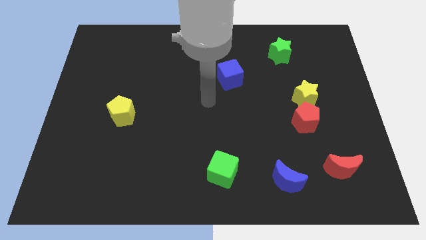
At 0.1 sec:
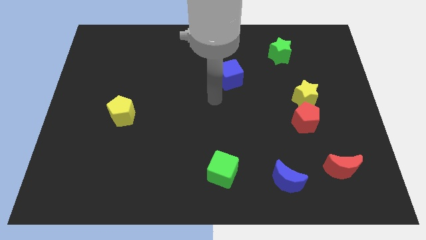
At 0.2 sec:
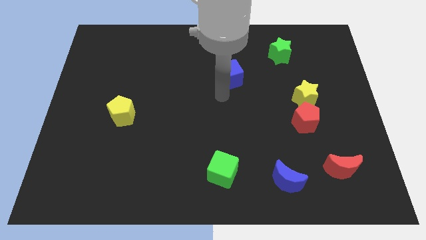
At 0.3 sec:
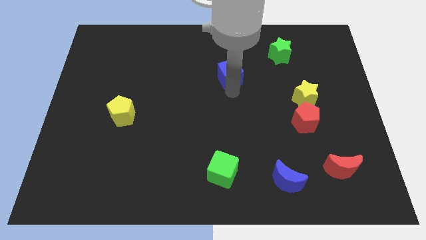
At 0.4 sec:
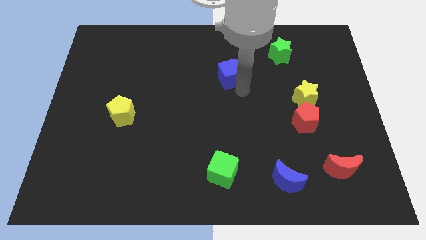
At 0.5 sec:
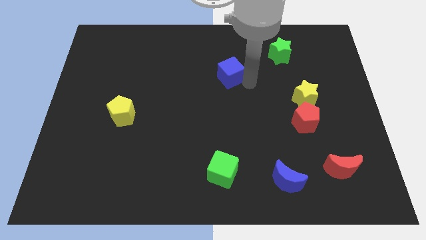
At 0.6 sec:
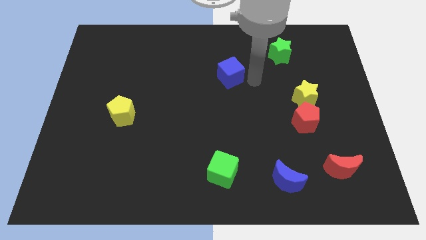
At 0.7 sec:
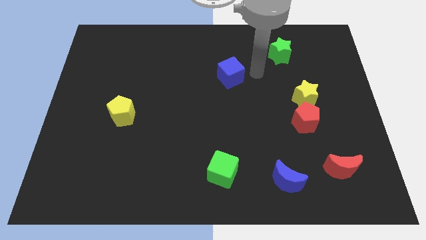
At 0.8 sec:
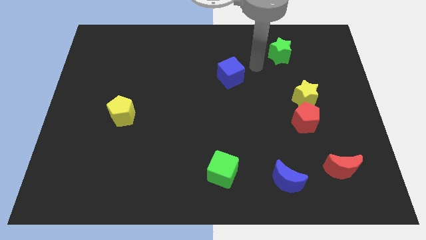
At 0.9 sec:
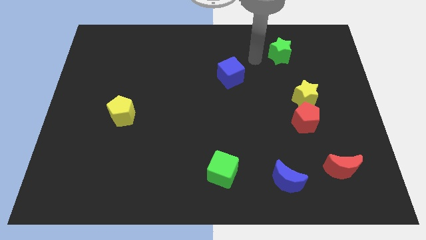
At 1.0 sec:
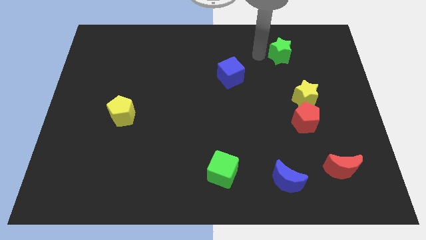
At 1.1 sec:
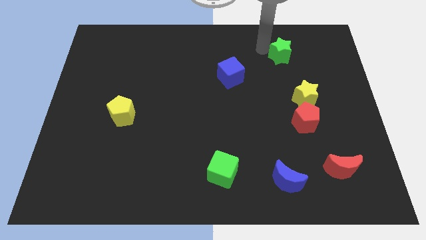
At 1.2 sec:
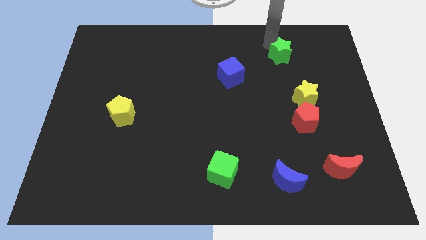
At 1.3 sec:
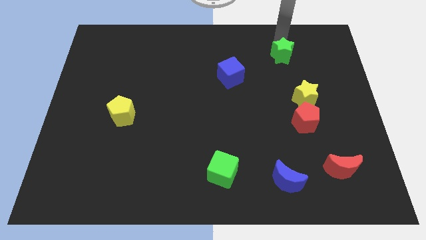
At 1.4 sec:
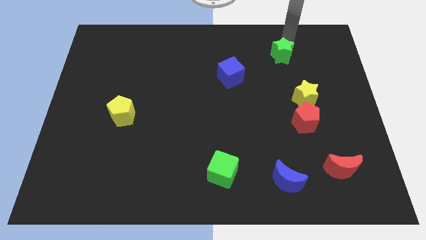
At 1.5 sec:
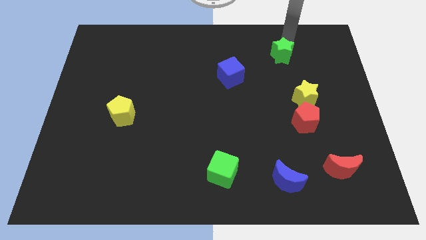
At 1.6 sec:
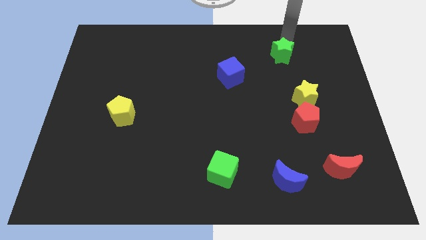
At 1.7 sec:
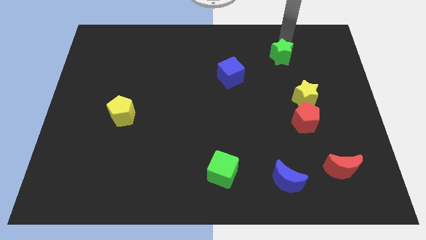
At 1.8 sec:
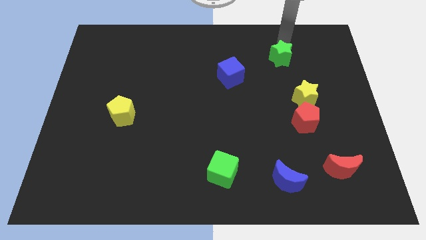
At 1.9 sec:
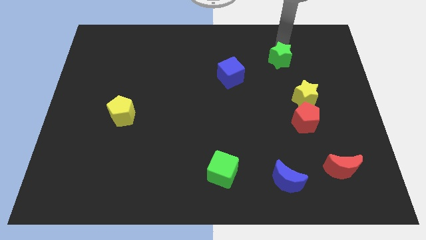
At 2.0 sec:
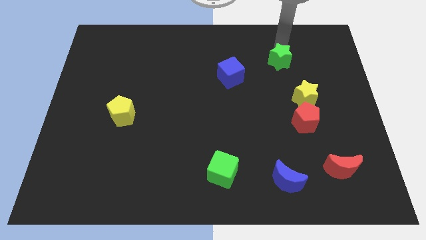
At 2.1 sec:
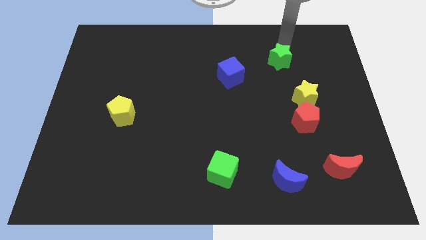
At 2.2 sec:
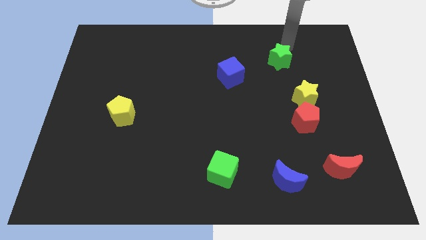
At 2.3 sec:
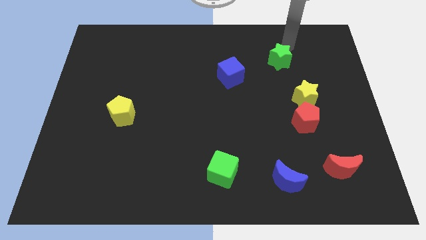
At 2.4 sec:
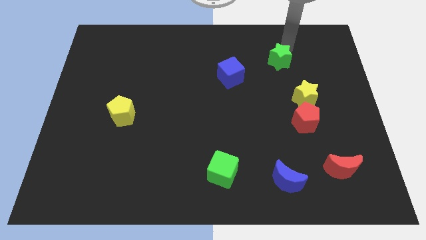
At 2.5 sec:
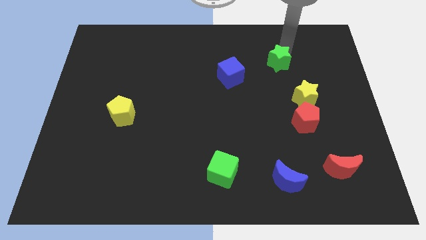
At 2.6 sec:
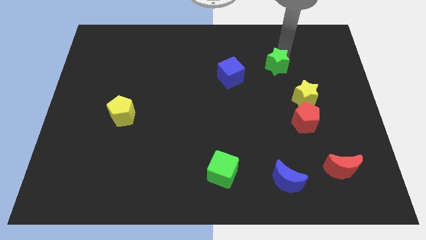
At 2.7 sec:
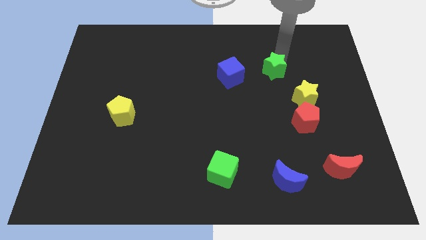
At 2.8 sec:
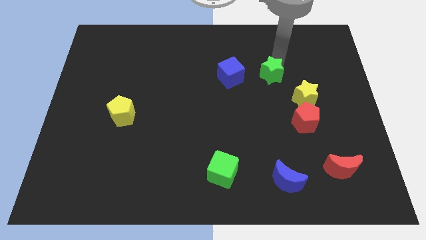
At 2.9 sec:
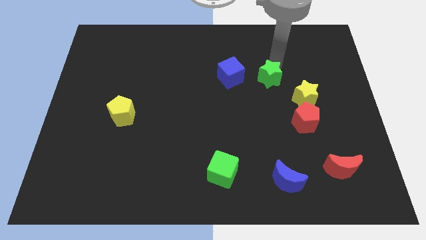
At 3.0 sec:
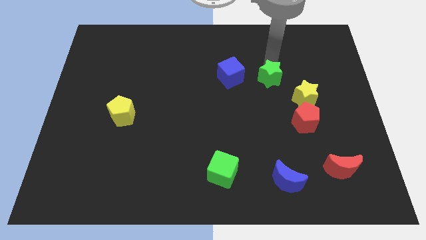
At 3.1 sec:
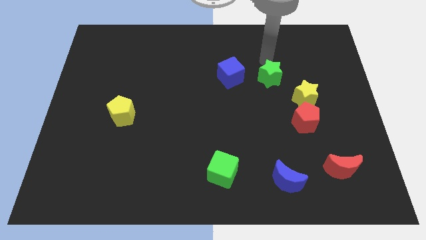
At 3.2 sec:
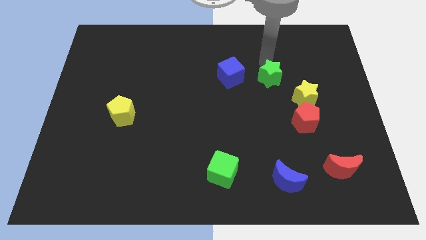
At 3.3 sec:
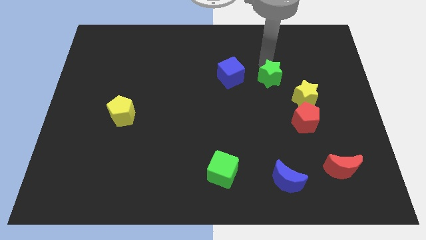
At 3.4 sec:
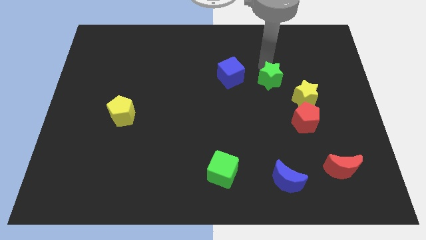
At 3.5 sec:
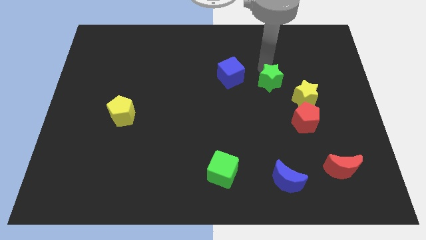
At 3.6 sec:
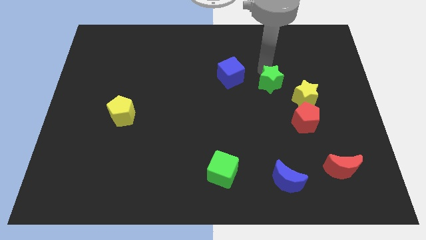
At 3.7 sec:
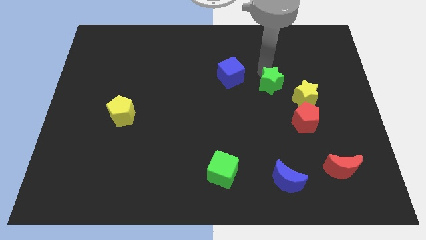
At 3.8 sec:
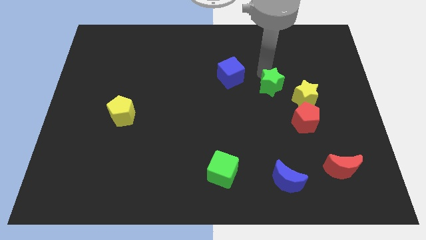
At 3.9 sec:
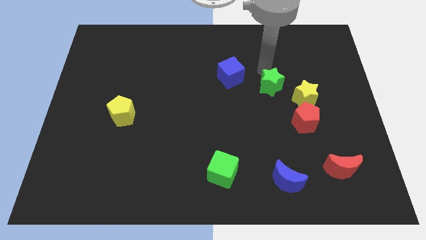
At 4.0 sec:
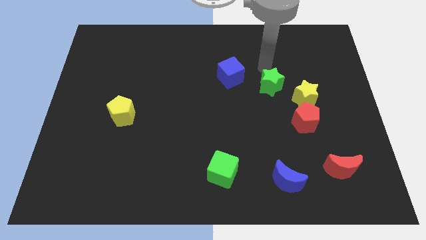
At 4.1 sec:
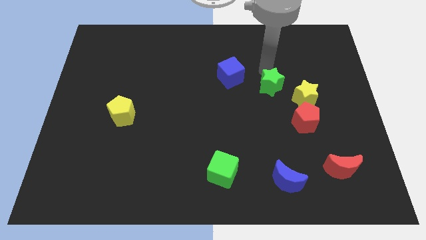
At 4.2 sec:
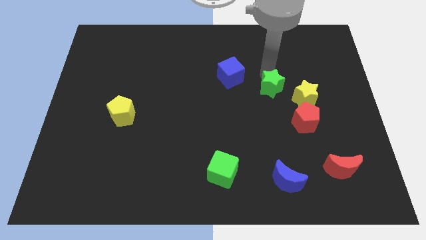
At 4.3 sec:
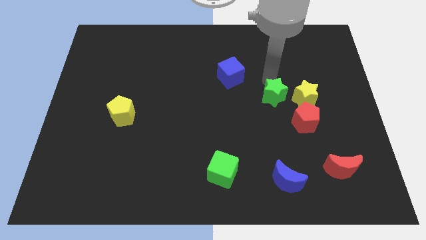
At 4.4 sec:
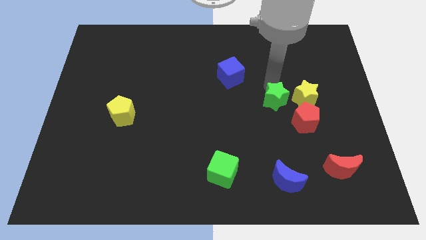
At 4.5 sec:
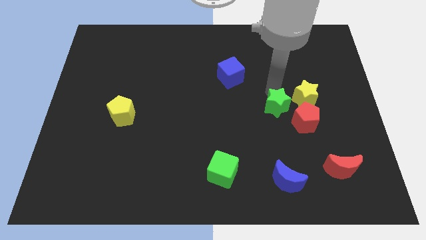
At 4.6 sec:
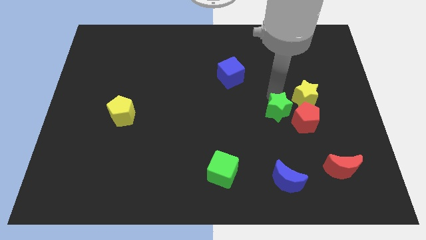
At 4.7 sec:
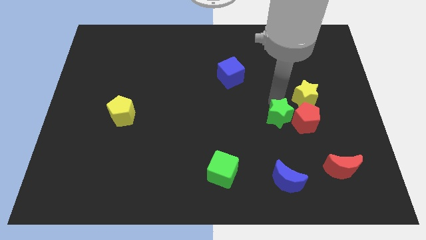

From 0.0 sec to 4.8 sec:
push the green star to the top side of the blue moon

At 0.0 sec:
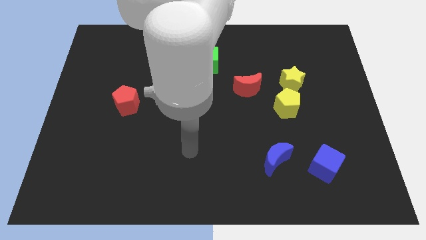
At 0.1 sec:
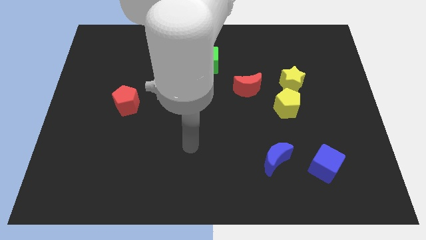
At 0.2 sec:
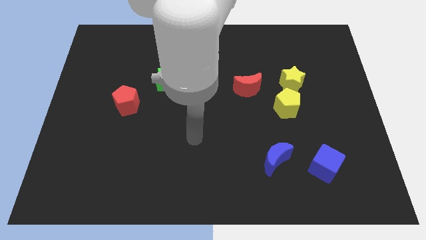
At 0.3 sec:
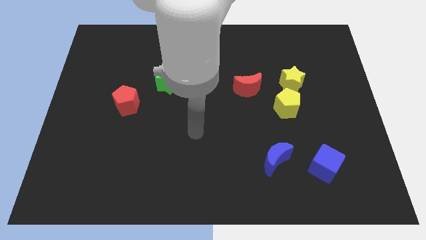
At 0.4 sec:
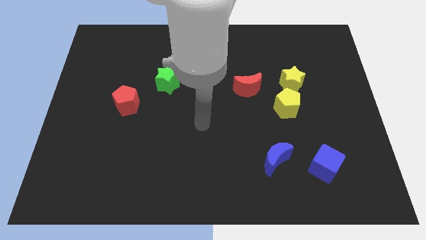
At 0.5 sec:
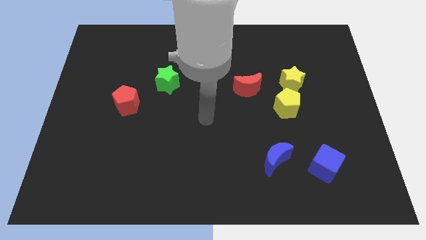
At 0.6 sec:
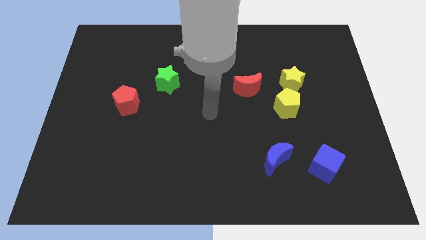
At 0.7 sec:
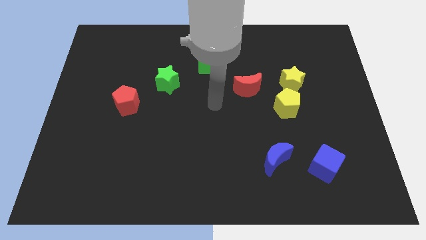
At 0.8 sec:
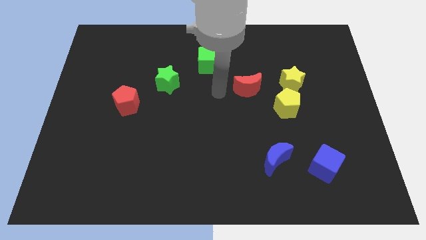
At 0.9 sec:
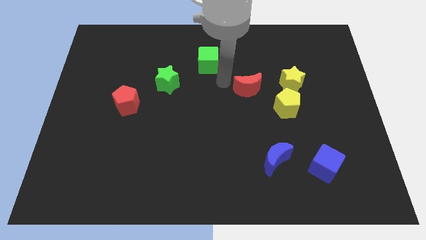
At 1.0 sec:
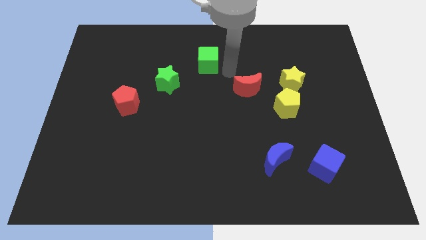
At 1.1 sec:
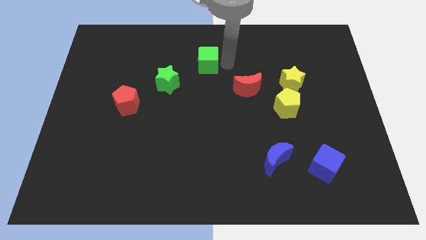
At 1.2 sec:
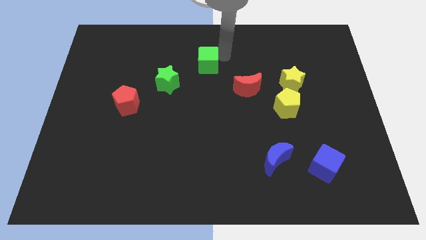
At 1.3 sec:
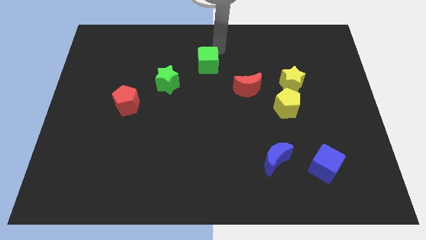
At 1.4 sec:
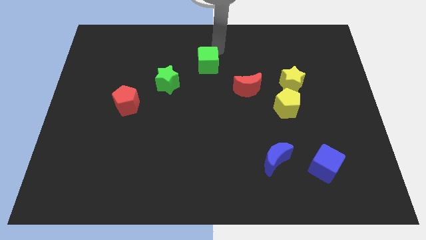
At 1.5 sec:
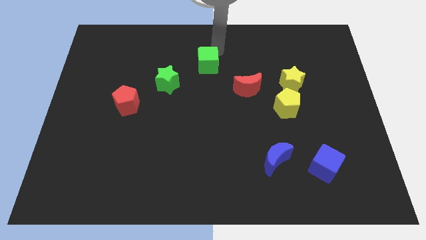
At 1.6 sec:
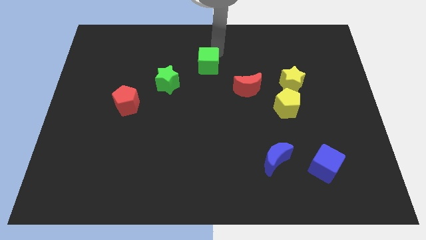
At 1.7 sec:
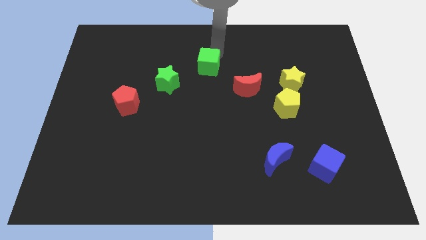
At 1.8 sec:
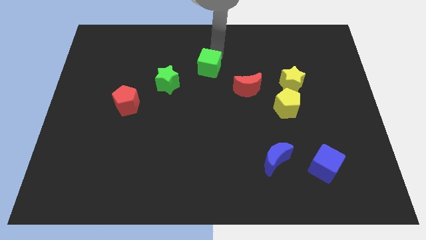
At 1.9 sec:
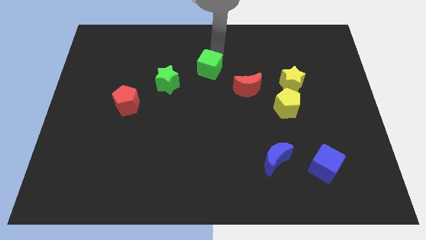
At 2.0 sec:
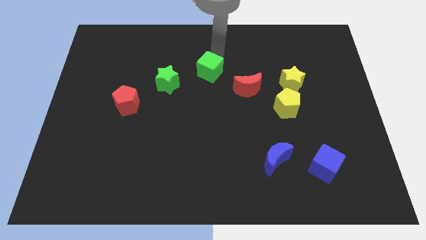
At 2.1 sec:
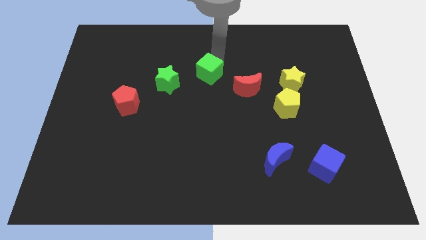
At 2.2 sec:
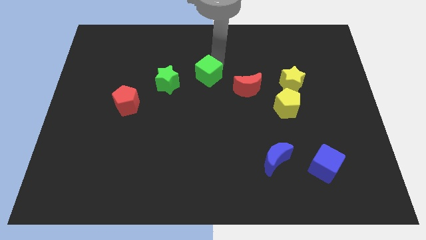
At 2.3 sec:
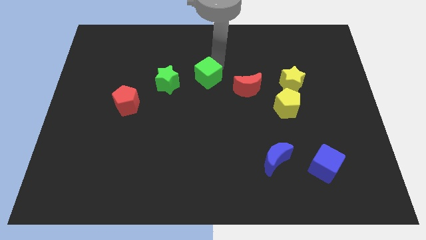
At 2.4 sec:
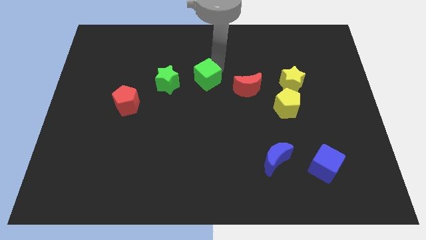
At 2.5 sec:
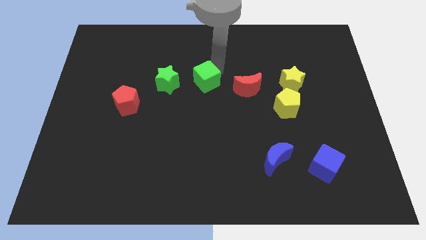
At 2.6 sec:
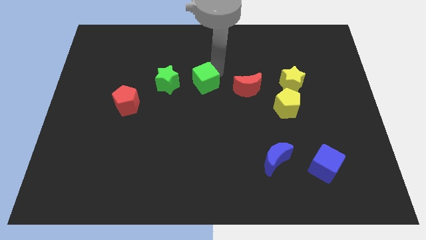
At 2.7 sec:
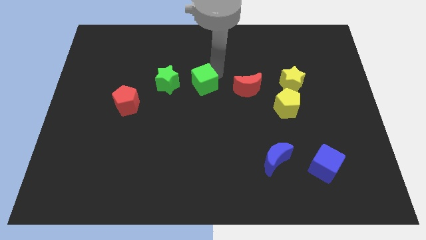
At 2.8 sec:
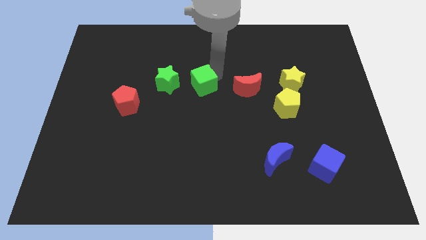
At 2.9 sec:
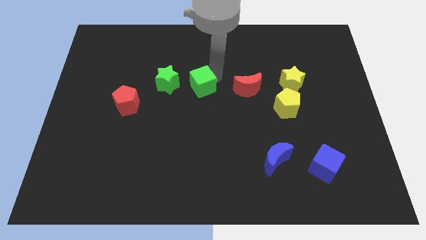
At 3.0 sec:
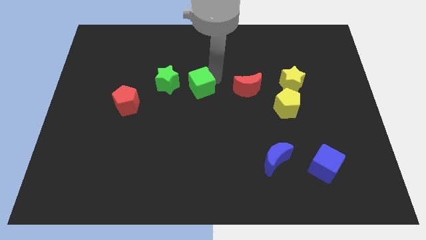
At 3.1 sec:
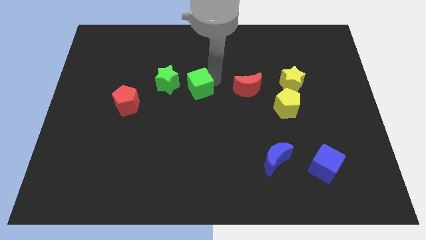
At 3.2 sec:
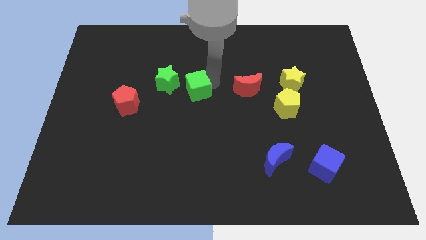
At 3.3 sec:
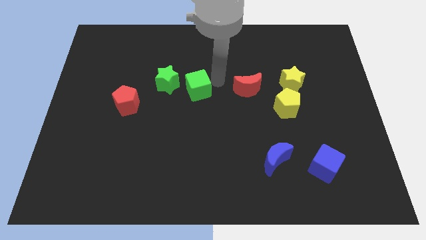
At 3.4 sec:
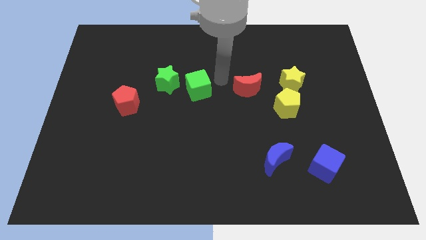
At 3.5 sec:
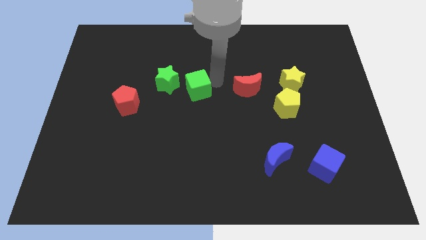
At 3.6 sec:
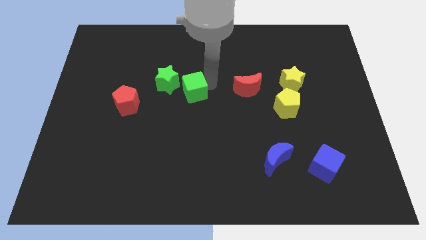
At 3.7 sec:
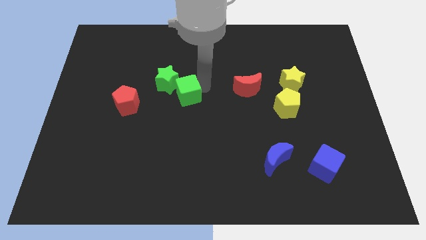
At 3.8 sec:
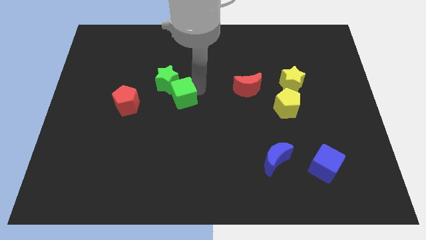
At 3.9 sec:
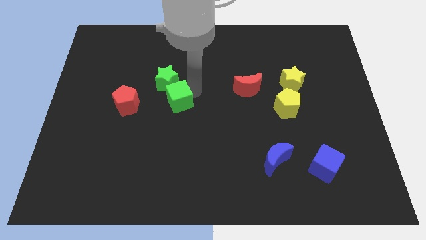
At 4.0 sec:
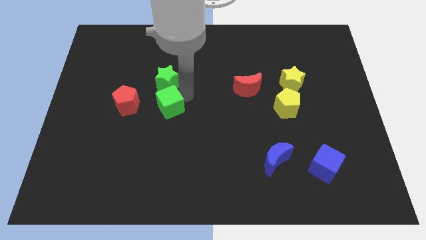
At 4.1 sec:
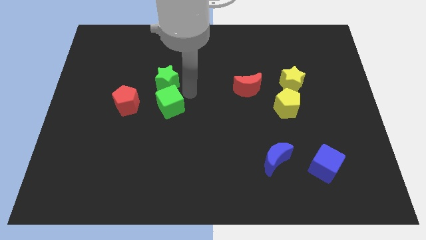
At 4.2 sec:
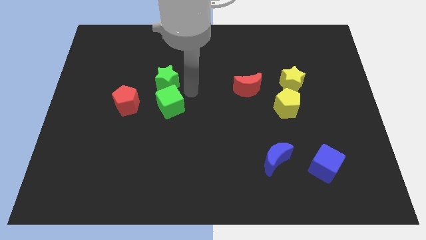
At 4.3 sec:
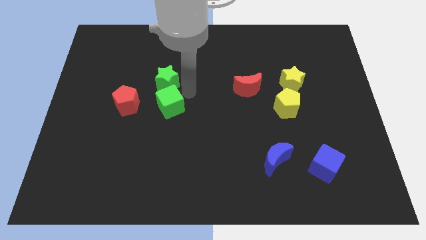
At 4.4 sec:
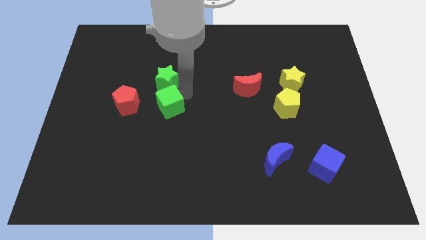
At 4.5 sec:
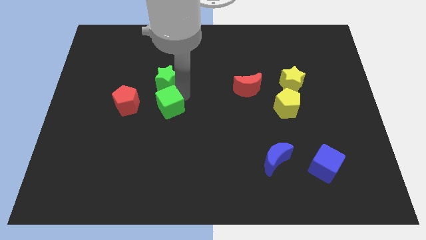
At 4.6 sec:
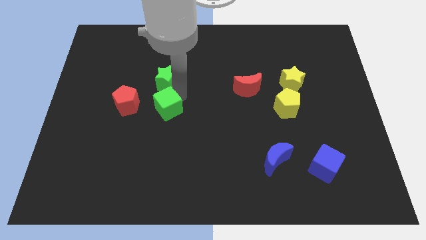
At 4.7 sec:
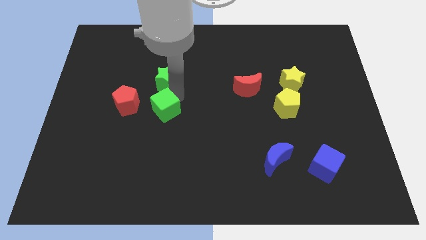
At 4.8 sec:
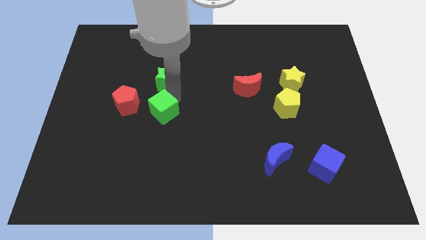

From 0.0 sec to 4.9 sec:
slide the green cube to the bottom right side of the red pentagon
